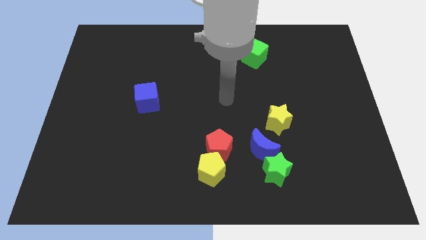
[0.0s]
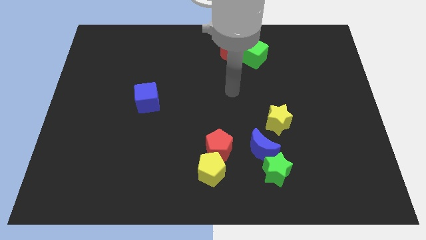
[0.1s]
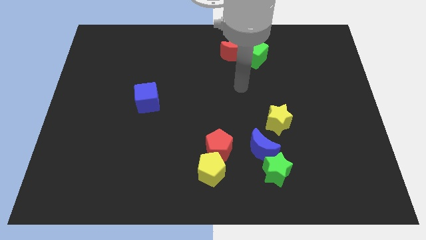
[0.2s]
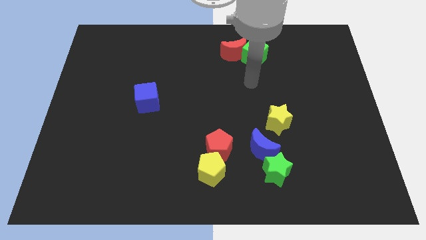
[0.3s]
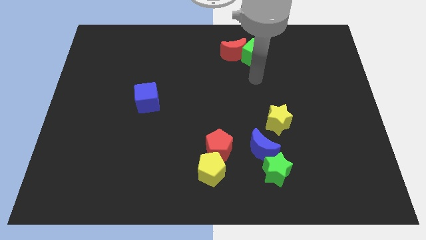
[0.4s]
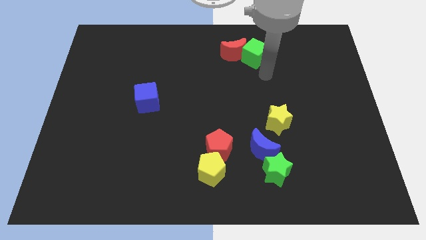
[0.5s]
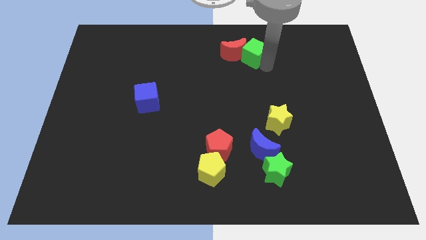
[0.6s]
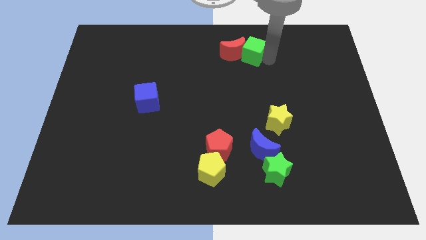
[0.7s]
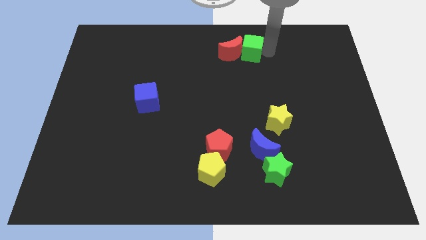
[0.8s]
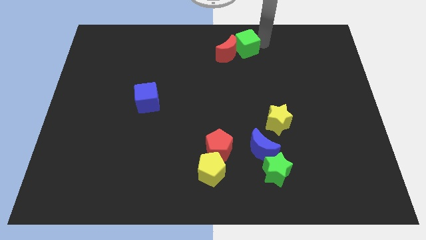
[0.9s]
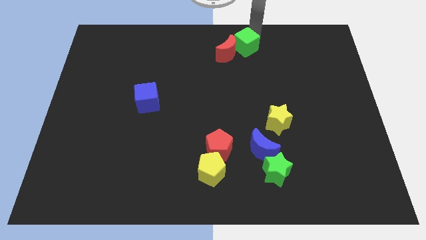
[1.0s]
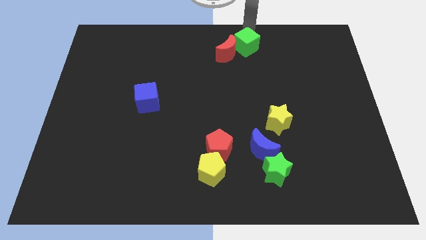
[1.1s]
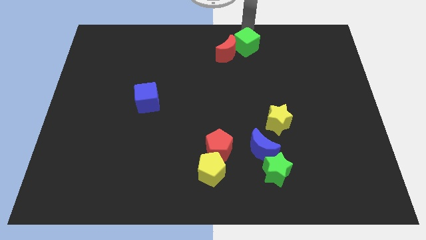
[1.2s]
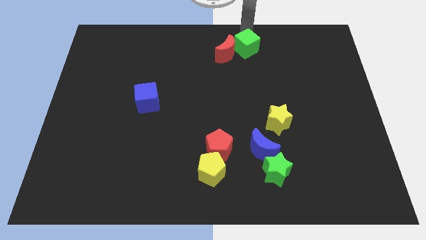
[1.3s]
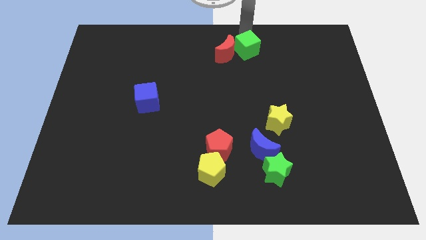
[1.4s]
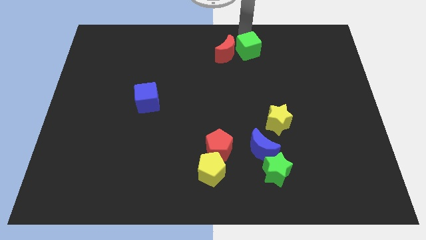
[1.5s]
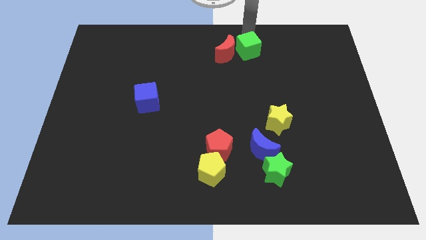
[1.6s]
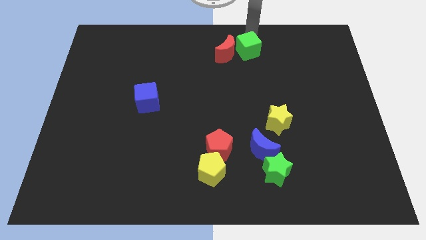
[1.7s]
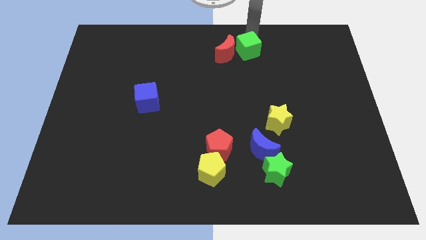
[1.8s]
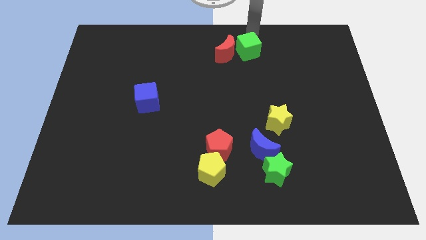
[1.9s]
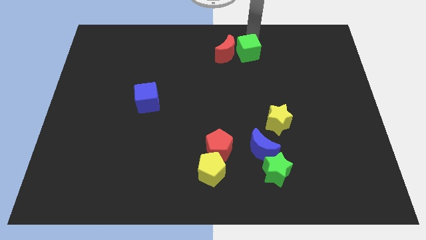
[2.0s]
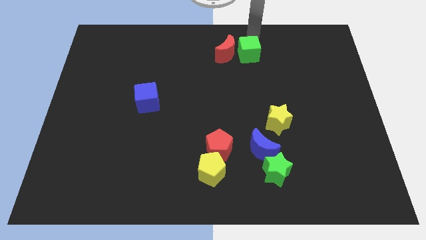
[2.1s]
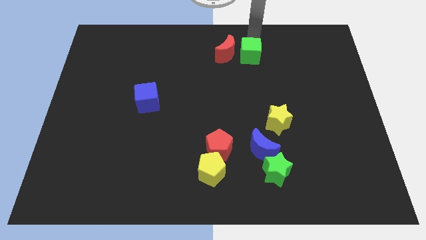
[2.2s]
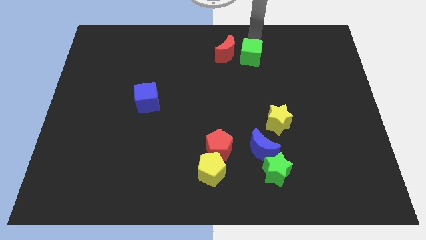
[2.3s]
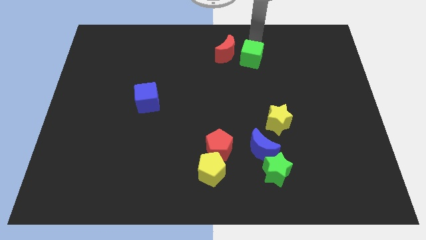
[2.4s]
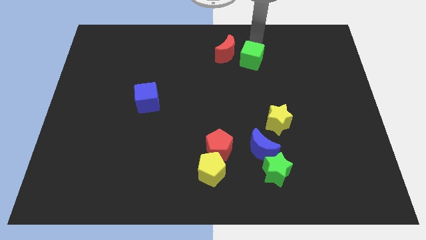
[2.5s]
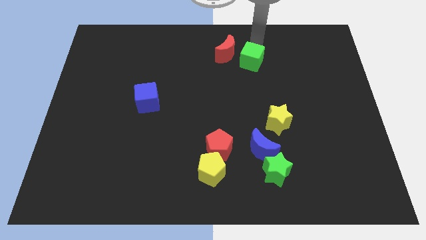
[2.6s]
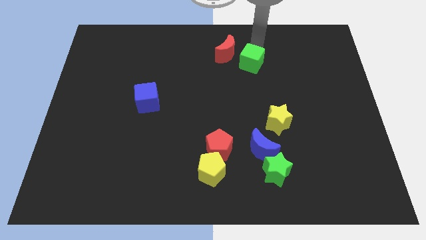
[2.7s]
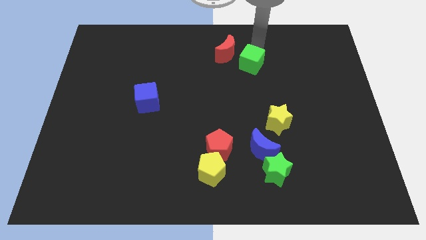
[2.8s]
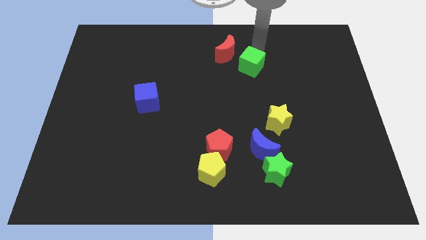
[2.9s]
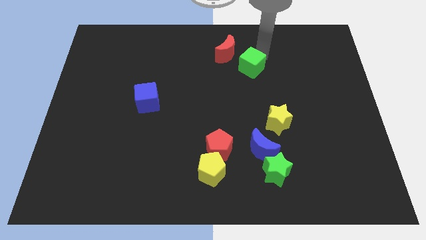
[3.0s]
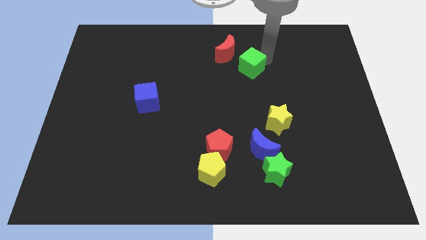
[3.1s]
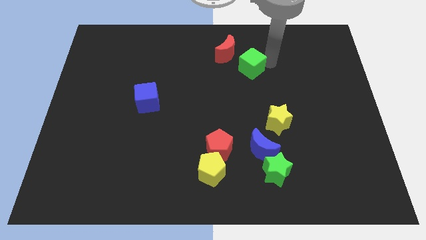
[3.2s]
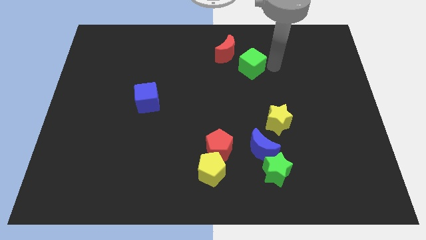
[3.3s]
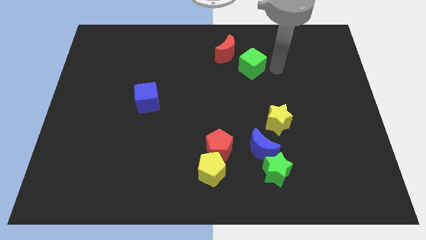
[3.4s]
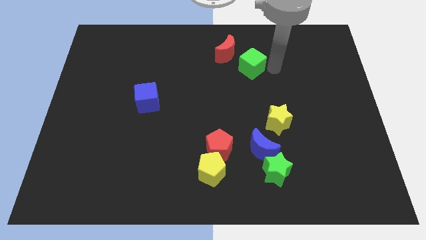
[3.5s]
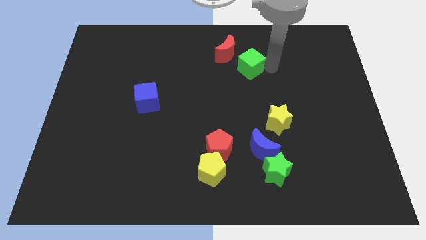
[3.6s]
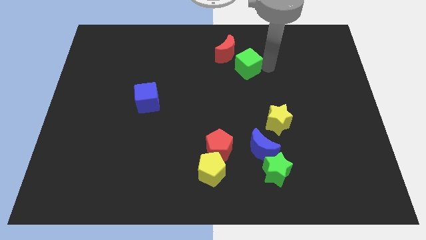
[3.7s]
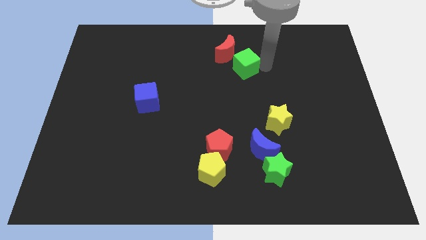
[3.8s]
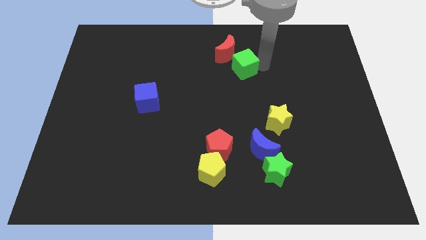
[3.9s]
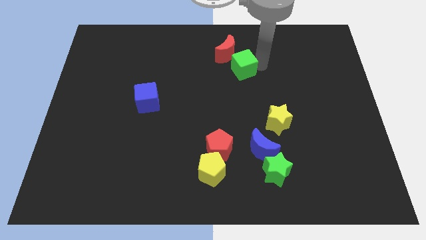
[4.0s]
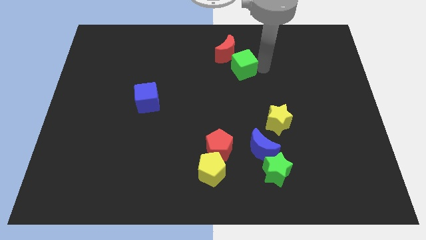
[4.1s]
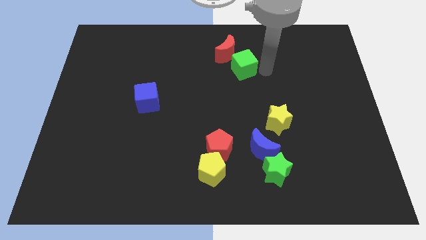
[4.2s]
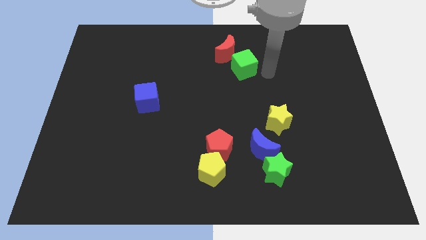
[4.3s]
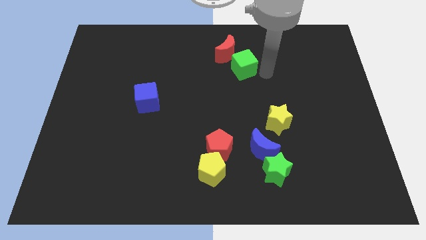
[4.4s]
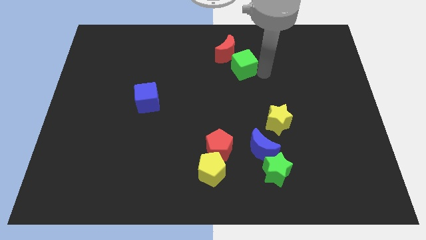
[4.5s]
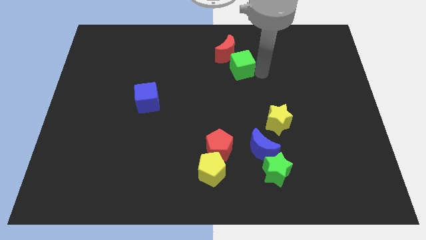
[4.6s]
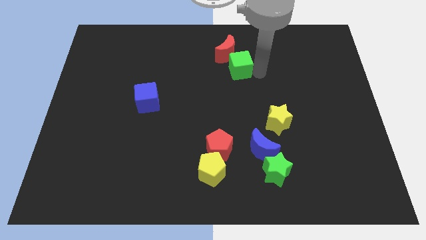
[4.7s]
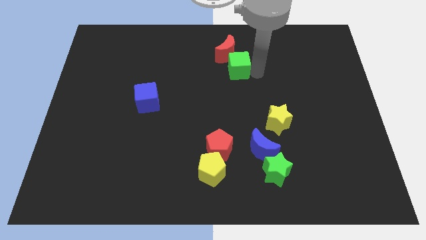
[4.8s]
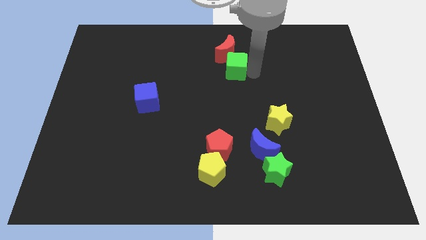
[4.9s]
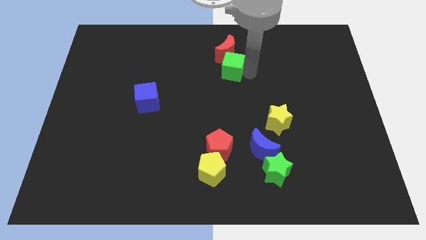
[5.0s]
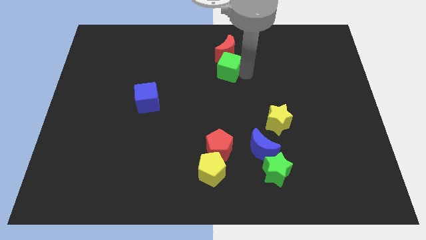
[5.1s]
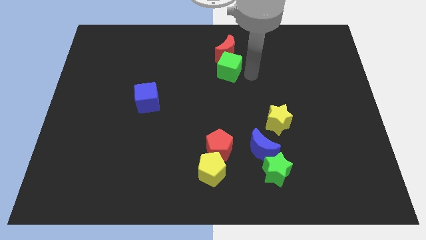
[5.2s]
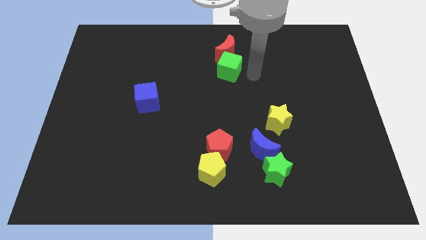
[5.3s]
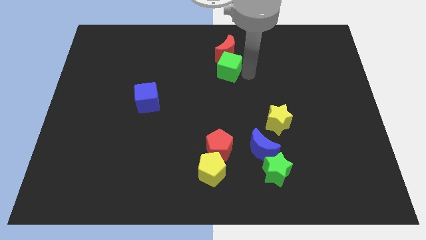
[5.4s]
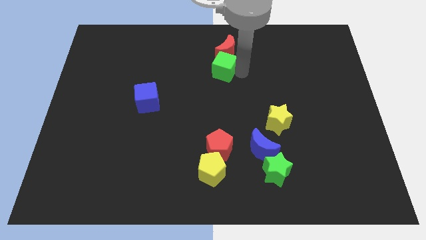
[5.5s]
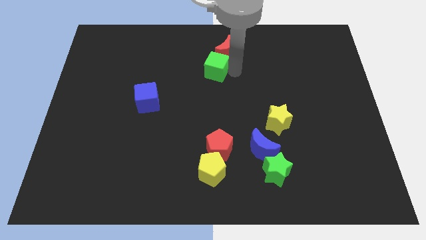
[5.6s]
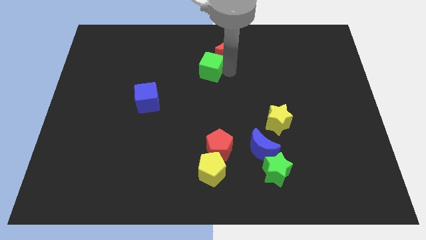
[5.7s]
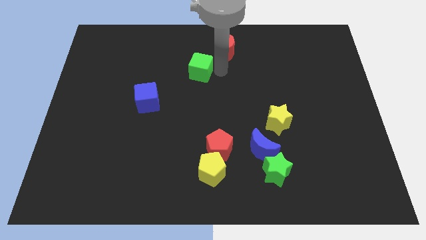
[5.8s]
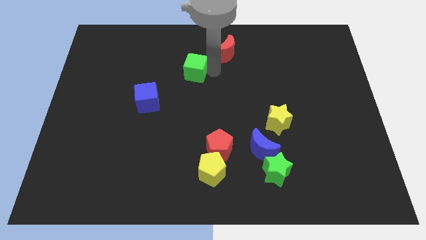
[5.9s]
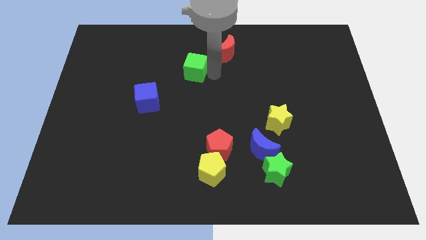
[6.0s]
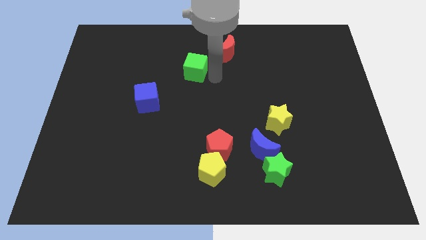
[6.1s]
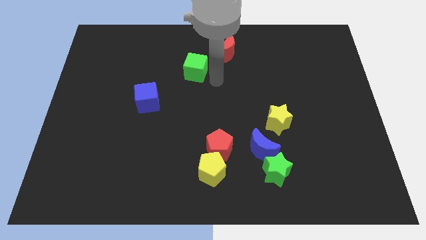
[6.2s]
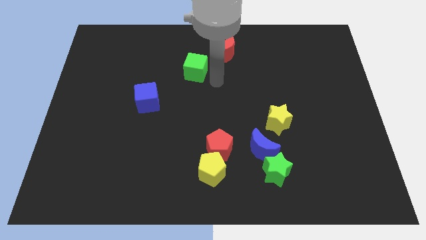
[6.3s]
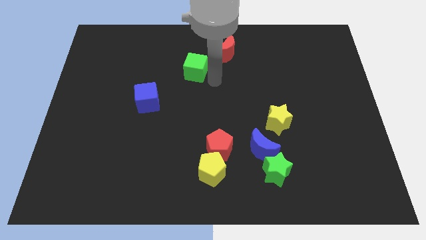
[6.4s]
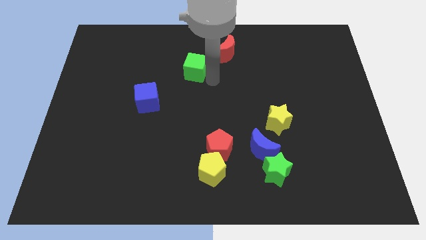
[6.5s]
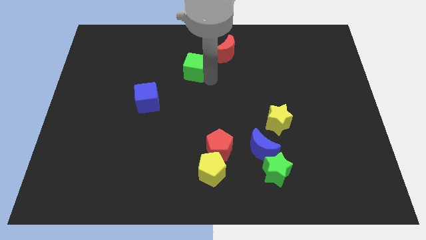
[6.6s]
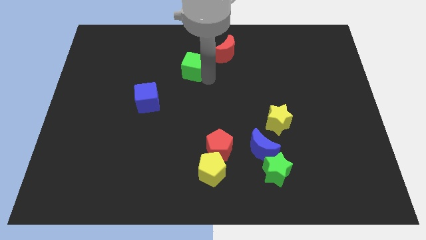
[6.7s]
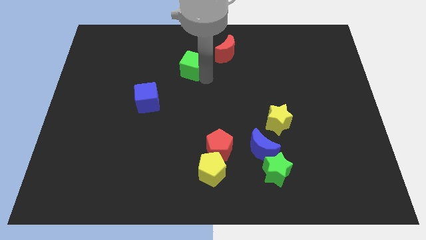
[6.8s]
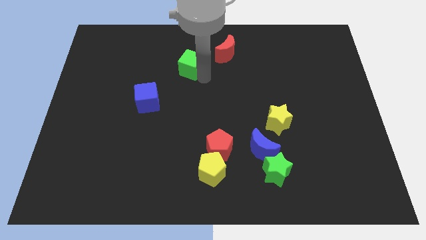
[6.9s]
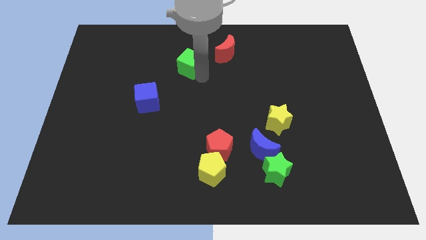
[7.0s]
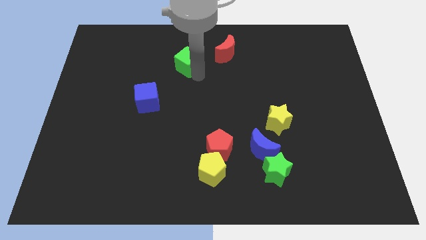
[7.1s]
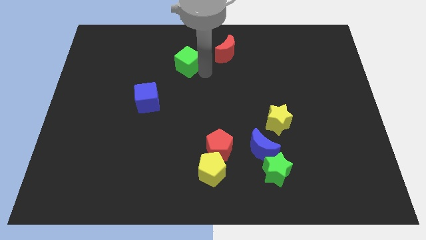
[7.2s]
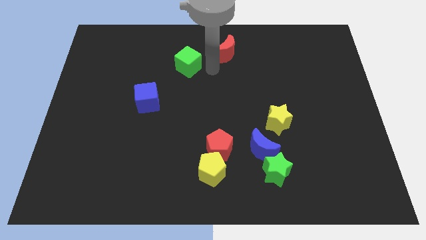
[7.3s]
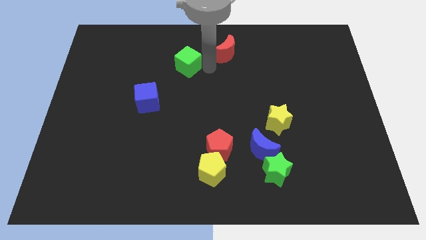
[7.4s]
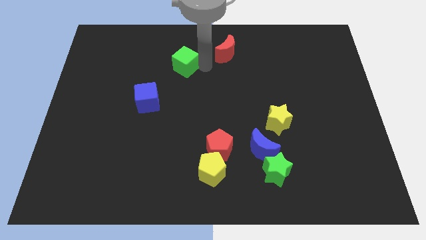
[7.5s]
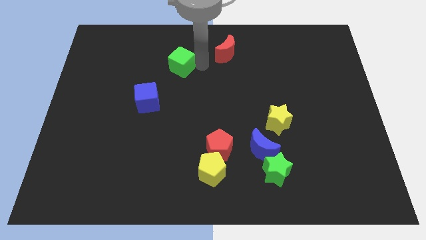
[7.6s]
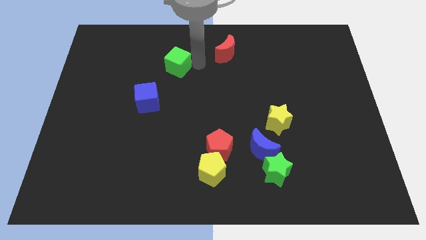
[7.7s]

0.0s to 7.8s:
push the green cube left

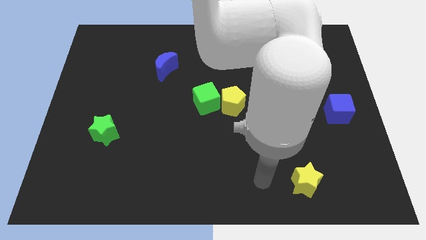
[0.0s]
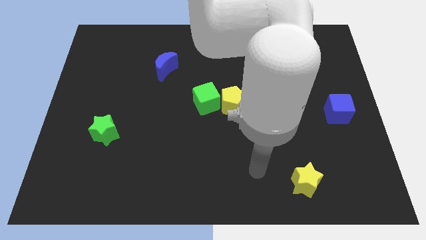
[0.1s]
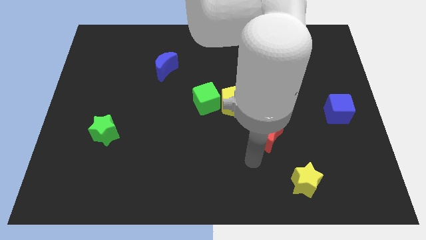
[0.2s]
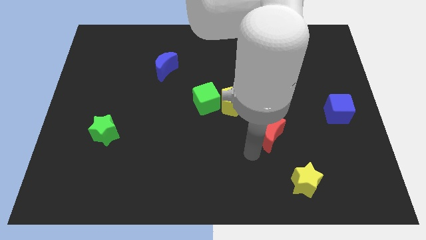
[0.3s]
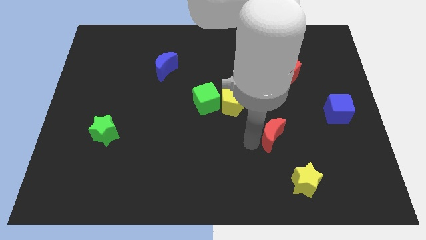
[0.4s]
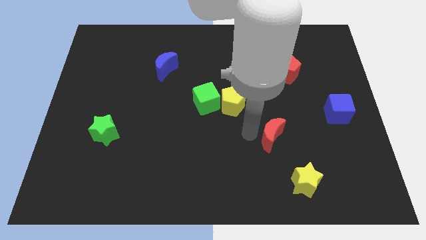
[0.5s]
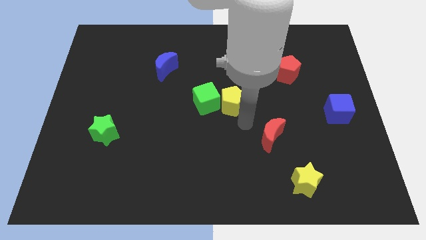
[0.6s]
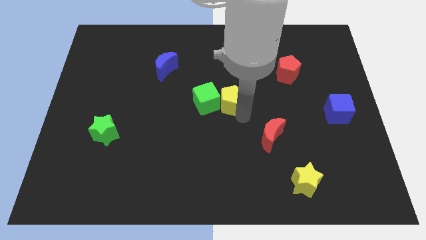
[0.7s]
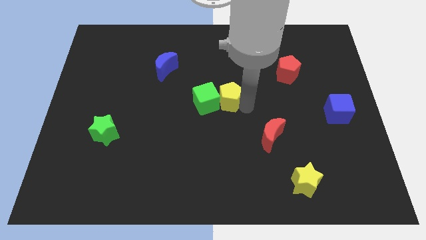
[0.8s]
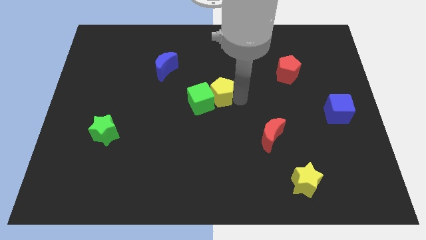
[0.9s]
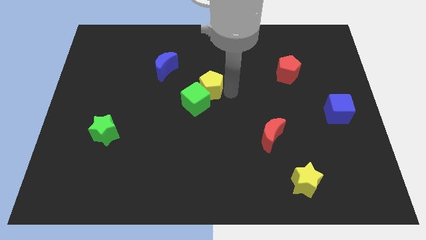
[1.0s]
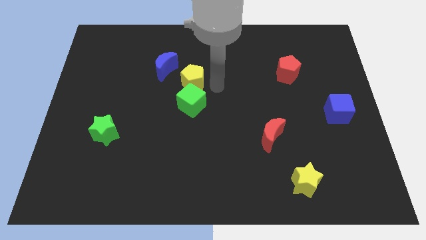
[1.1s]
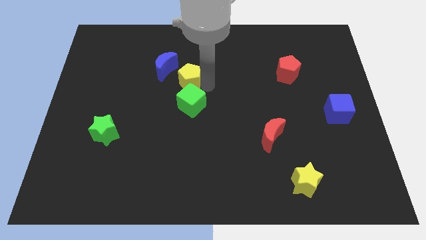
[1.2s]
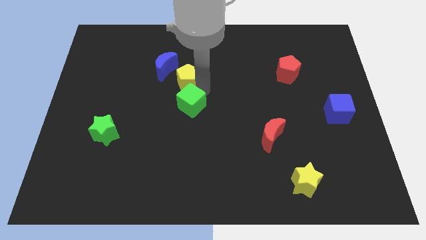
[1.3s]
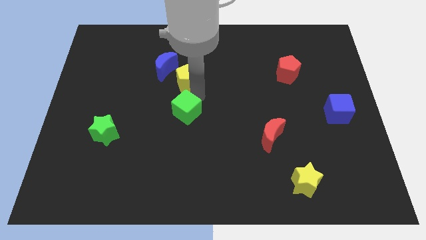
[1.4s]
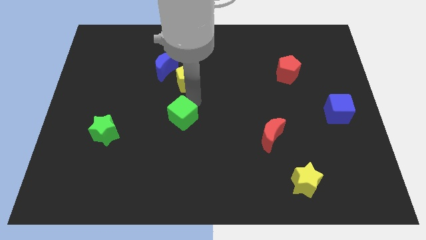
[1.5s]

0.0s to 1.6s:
slide the green cube a bit down and then left
